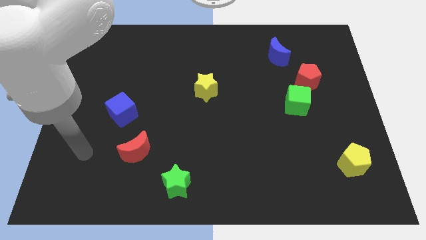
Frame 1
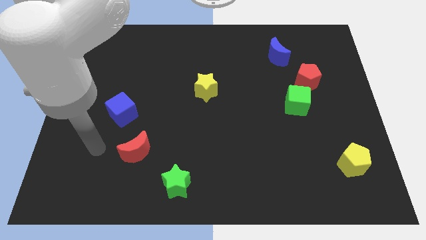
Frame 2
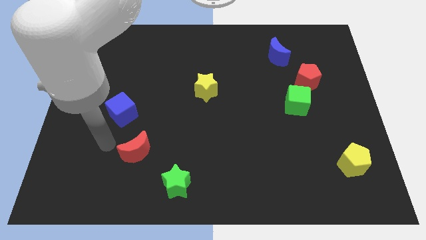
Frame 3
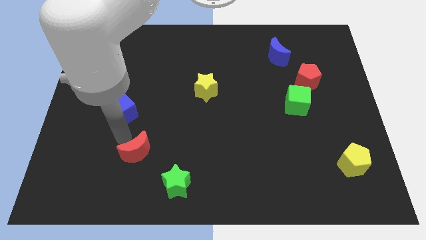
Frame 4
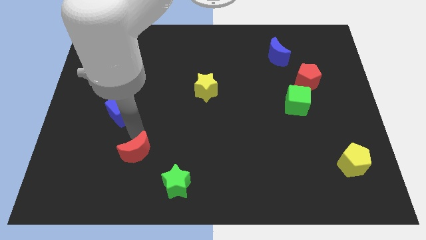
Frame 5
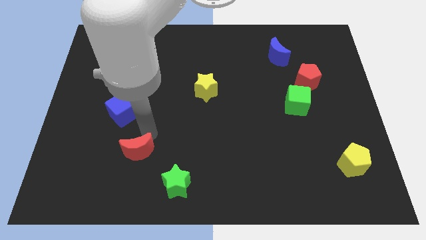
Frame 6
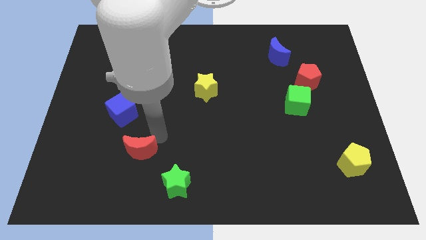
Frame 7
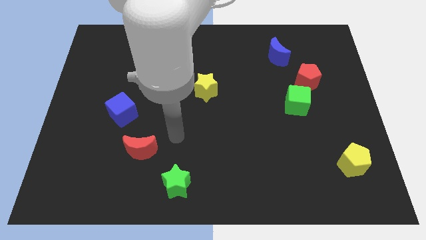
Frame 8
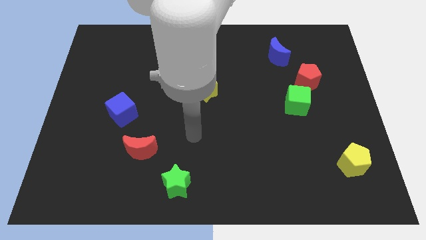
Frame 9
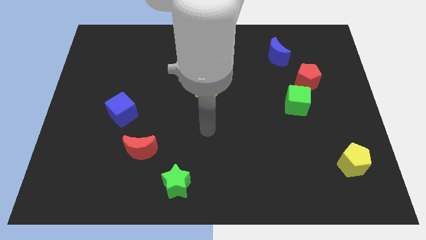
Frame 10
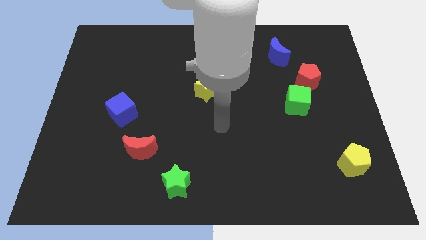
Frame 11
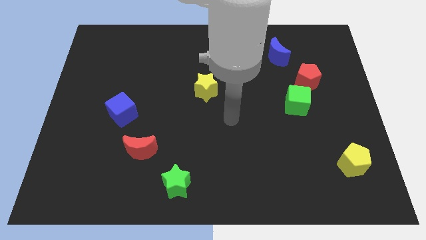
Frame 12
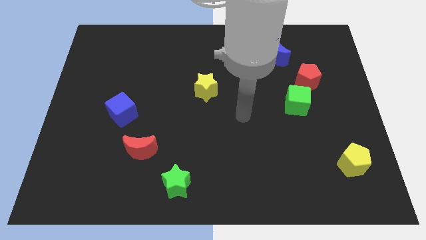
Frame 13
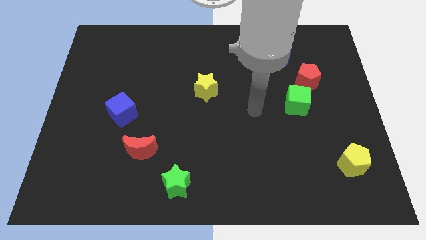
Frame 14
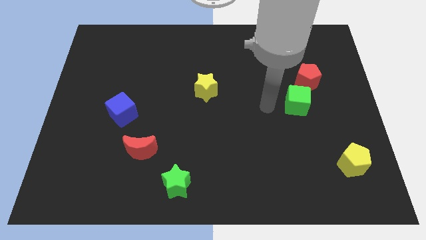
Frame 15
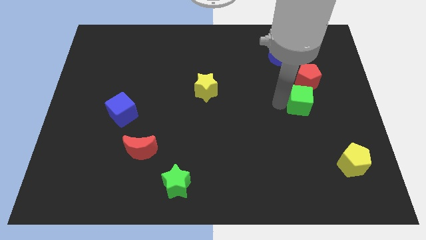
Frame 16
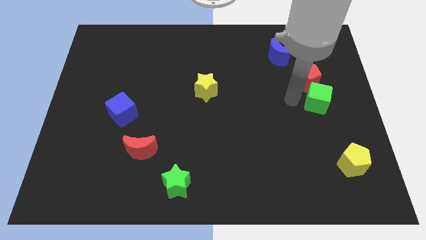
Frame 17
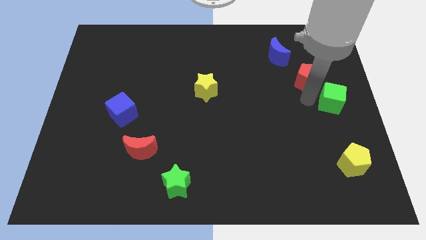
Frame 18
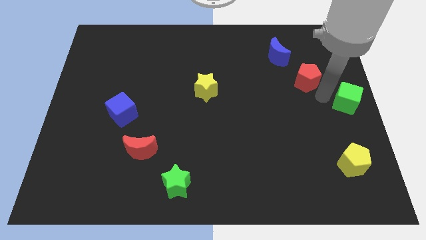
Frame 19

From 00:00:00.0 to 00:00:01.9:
pull the red pentagon apart from the green cube

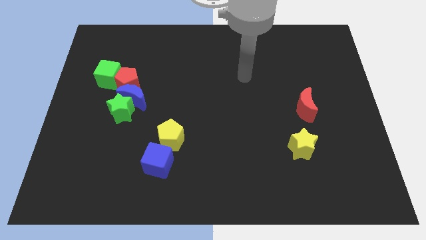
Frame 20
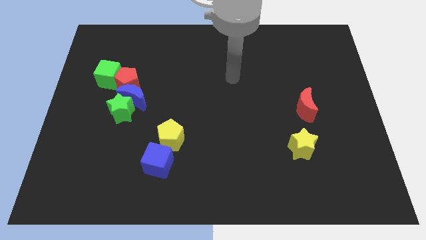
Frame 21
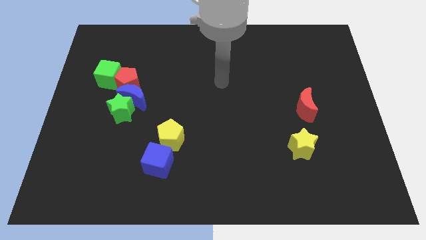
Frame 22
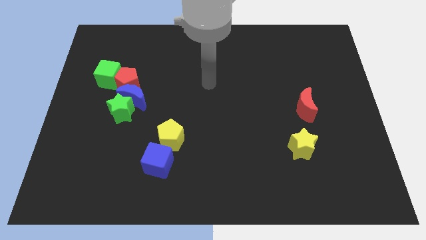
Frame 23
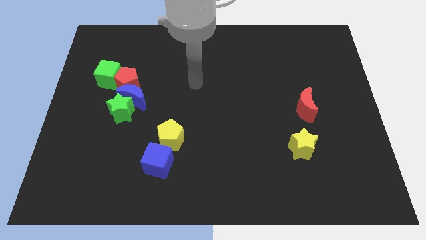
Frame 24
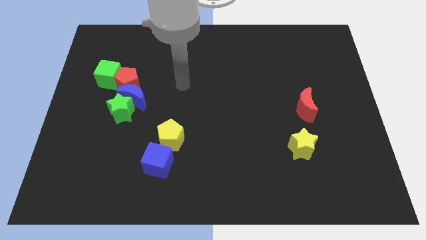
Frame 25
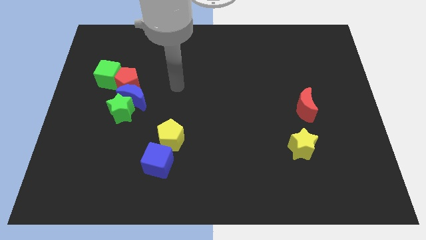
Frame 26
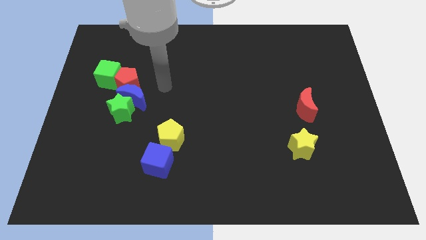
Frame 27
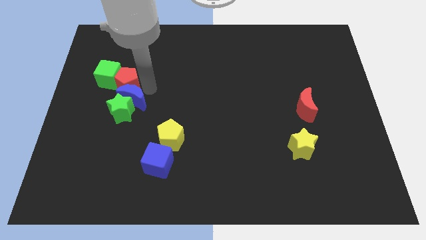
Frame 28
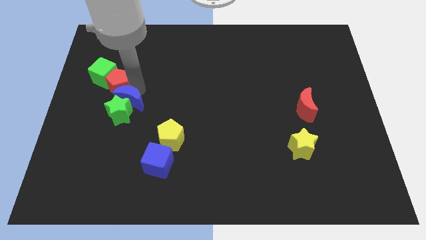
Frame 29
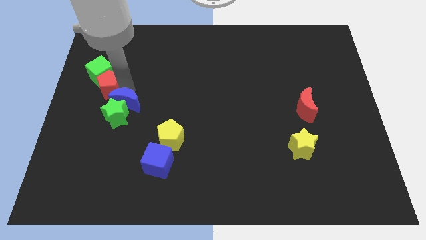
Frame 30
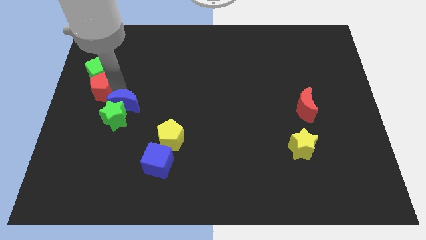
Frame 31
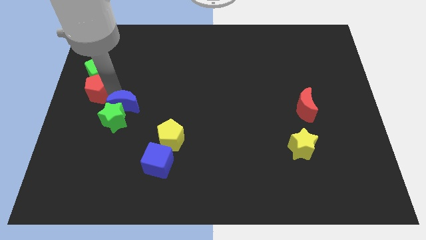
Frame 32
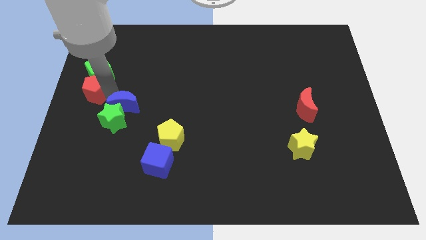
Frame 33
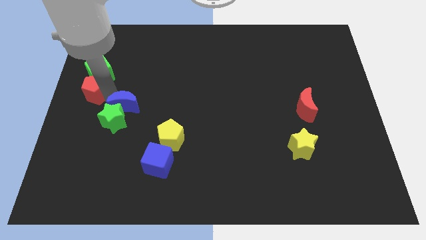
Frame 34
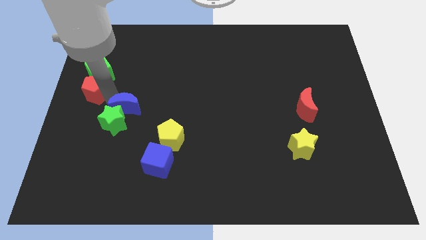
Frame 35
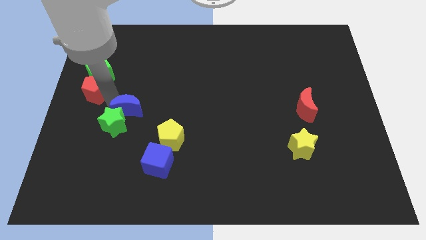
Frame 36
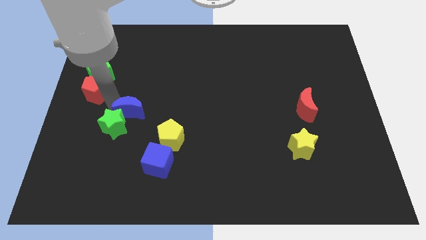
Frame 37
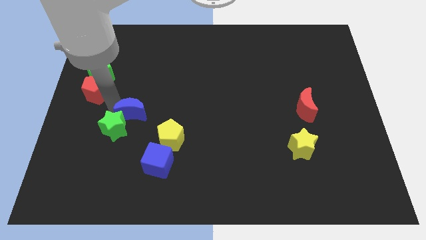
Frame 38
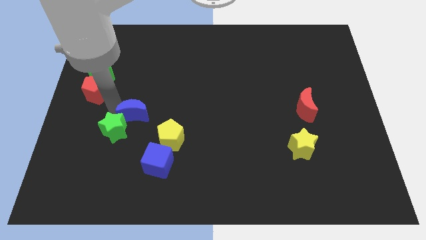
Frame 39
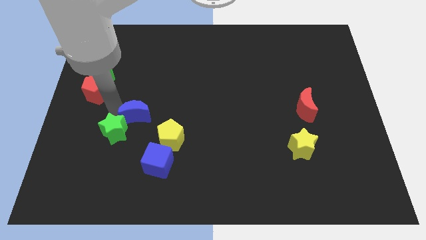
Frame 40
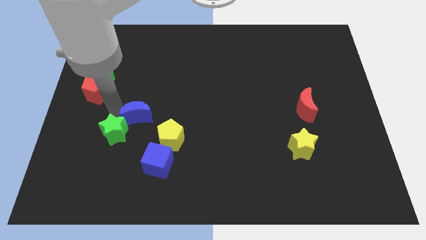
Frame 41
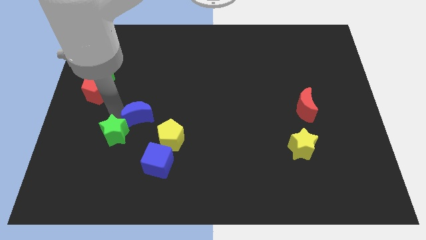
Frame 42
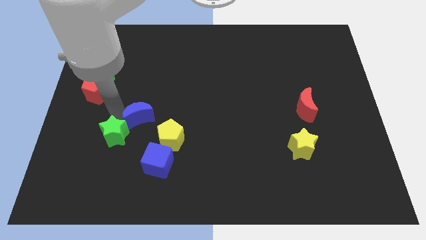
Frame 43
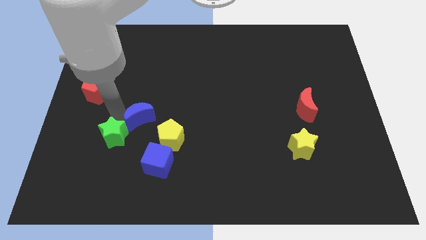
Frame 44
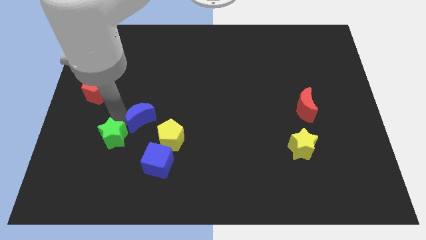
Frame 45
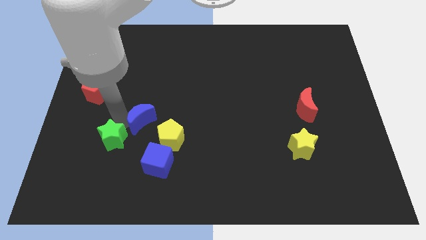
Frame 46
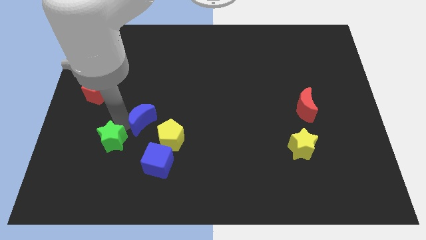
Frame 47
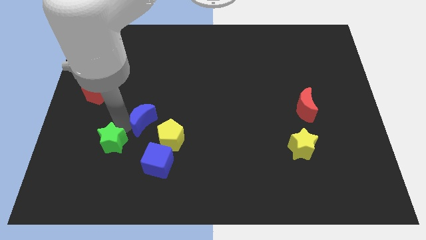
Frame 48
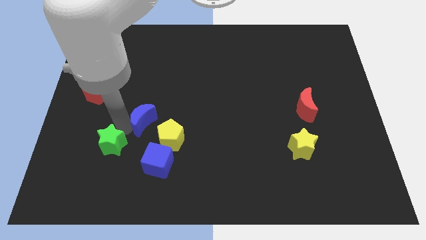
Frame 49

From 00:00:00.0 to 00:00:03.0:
move the green star away from the blue moon and red pentagon

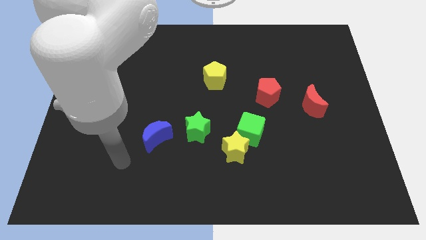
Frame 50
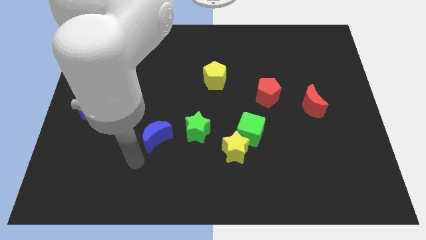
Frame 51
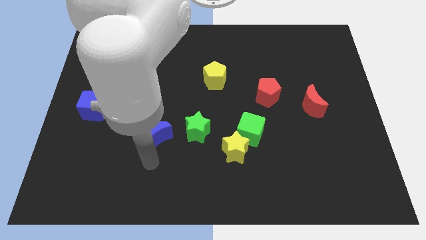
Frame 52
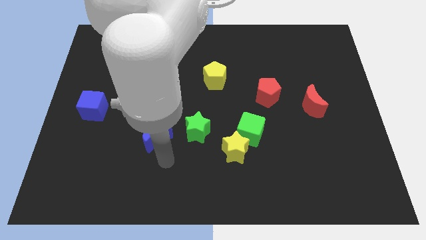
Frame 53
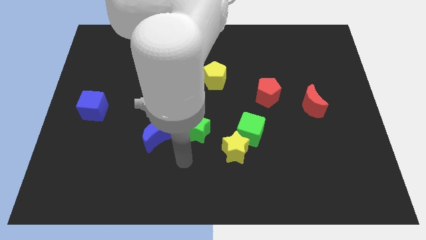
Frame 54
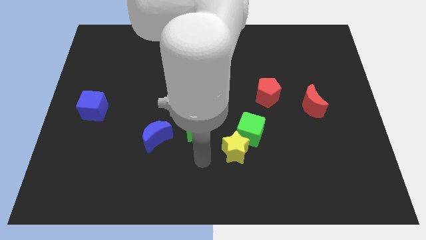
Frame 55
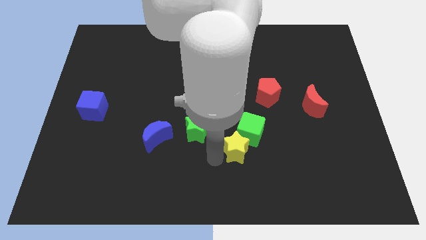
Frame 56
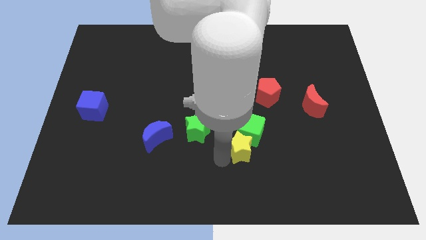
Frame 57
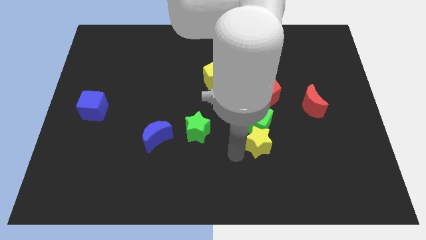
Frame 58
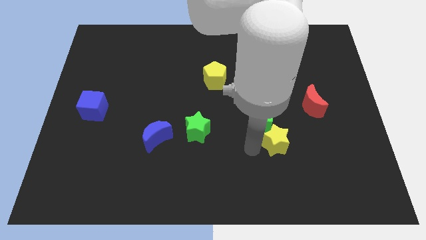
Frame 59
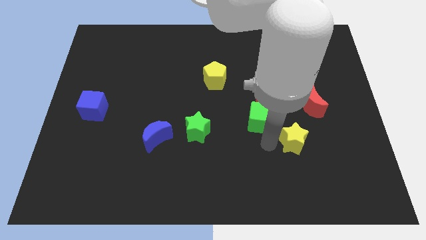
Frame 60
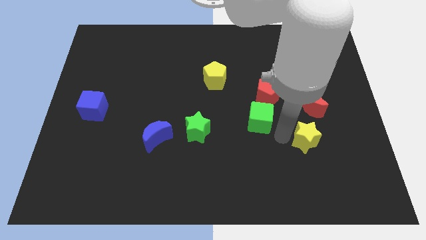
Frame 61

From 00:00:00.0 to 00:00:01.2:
move the green cube away from the yellow star

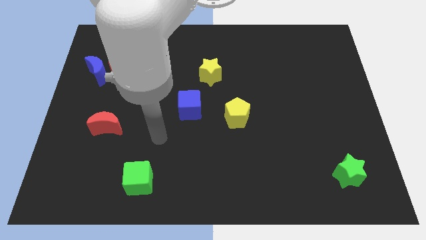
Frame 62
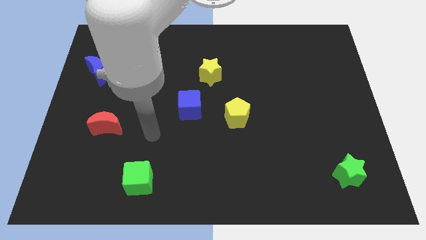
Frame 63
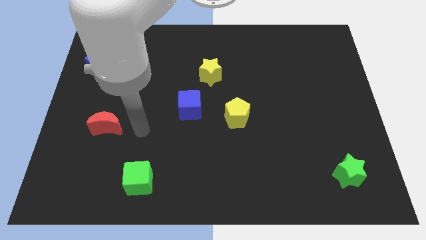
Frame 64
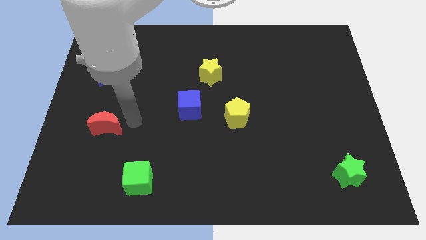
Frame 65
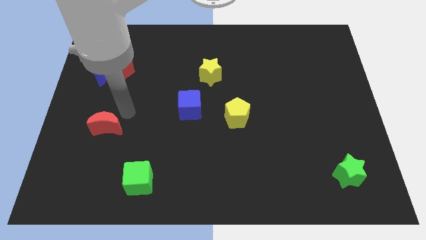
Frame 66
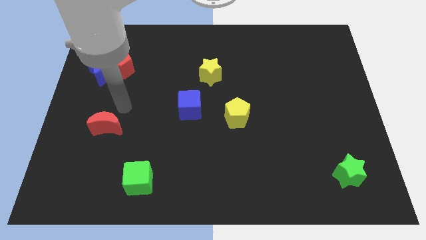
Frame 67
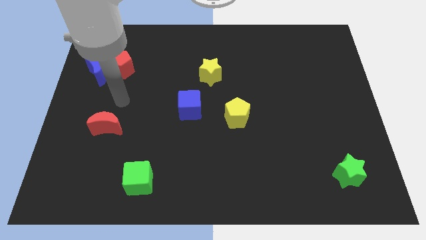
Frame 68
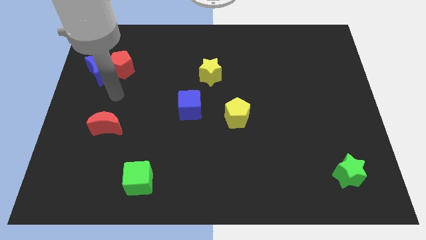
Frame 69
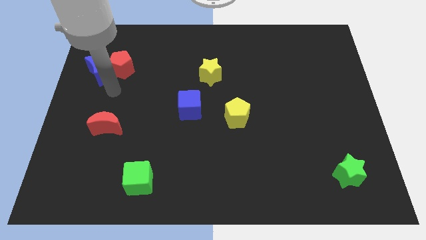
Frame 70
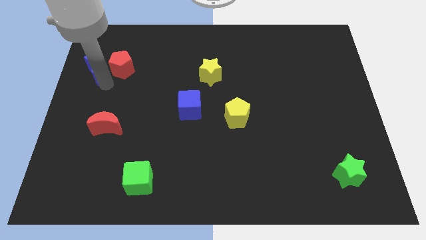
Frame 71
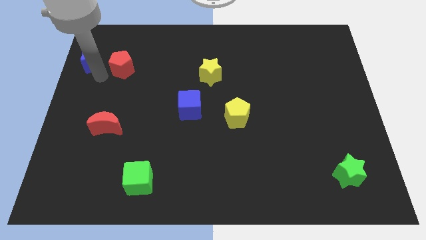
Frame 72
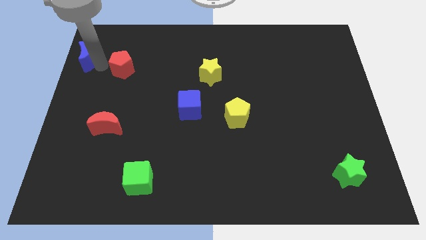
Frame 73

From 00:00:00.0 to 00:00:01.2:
move the red pentagon away from the blue moon

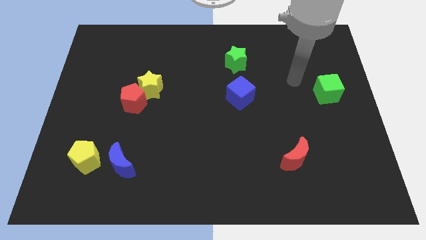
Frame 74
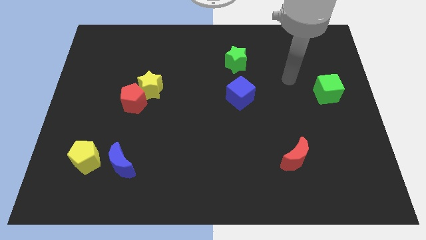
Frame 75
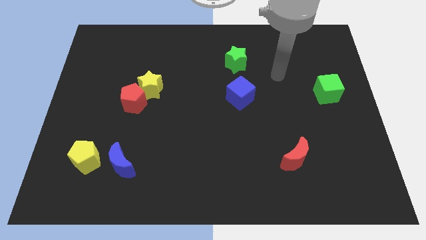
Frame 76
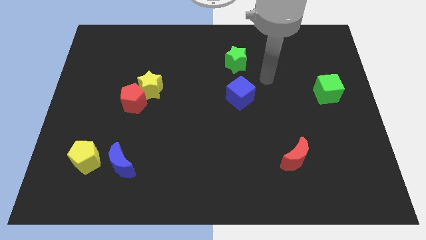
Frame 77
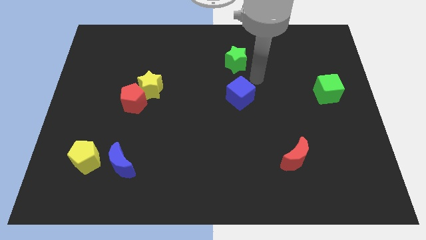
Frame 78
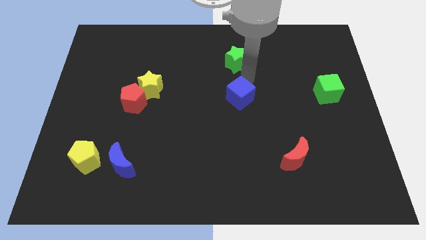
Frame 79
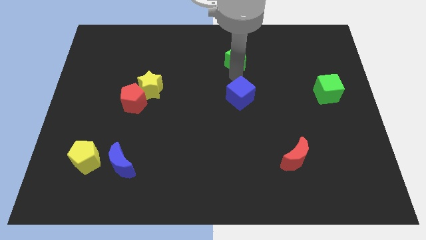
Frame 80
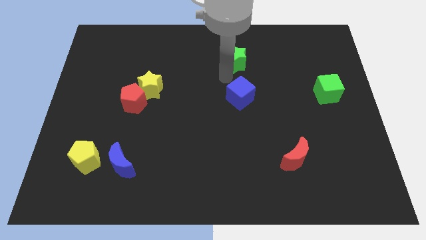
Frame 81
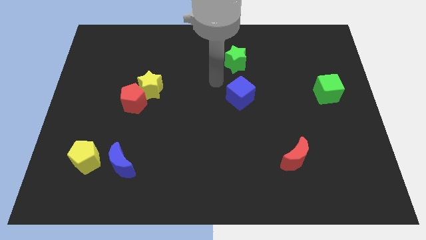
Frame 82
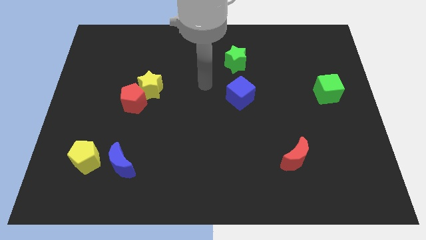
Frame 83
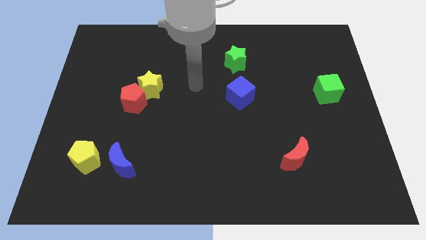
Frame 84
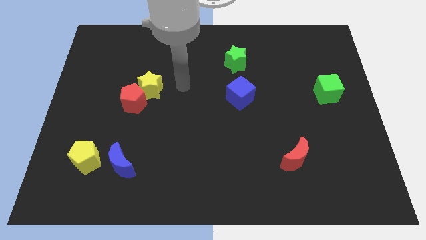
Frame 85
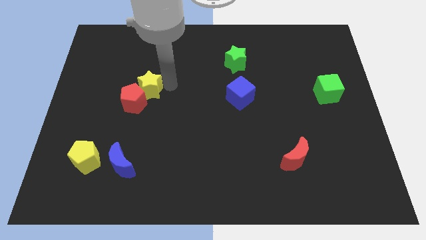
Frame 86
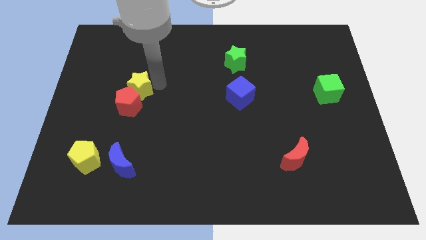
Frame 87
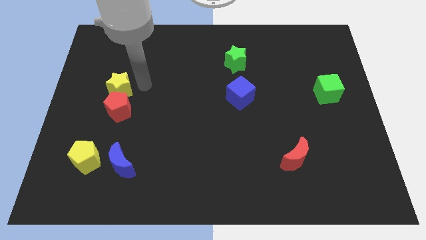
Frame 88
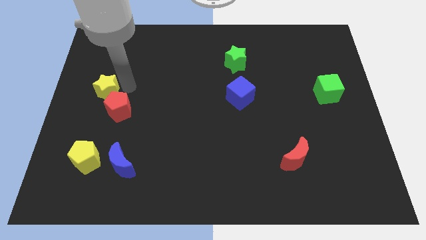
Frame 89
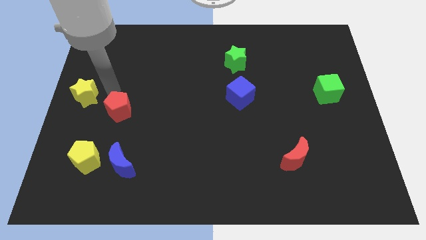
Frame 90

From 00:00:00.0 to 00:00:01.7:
separate the red pentagon from the yellow star

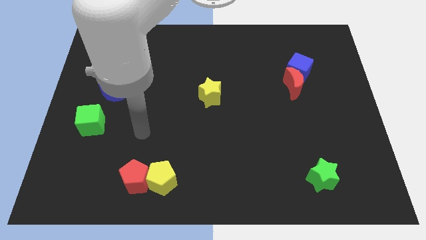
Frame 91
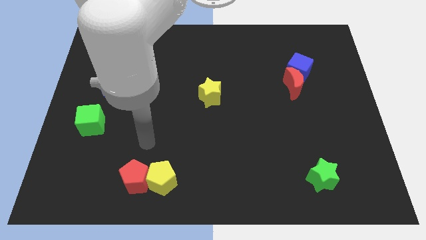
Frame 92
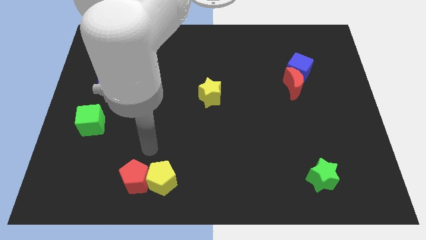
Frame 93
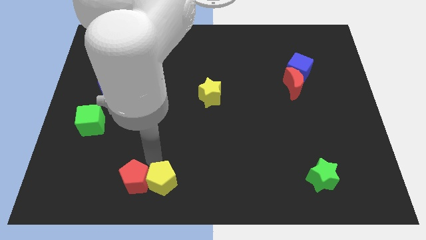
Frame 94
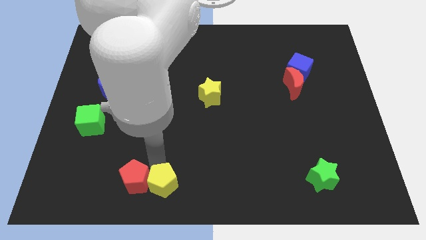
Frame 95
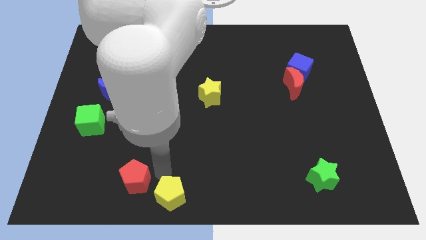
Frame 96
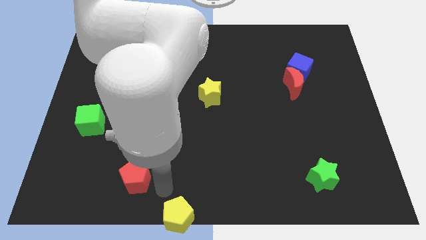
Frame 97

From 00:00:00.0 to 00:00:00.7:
move the red pentagon away from the yellow pentagon
